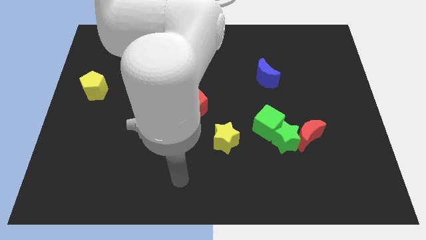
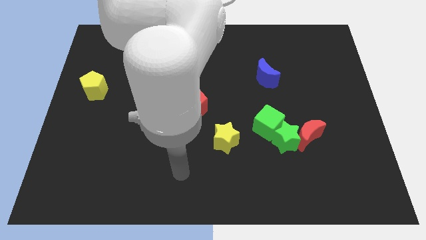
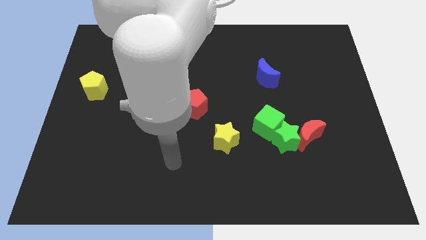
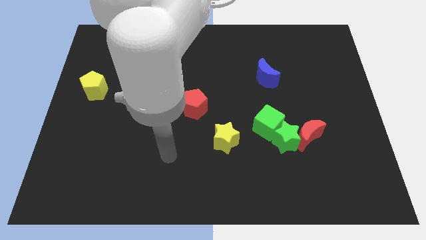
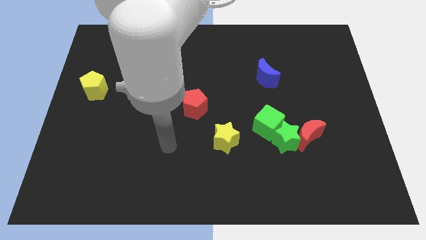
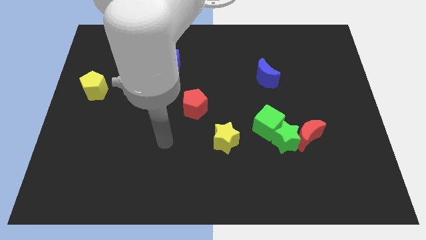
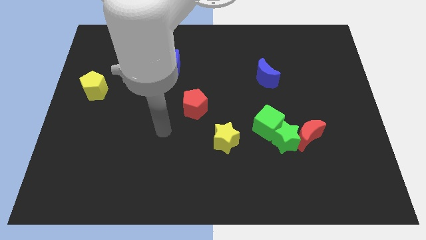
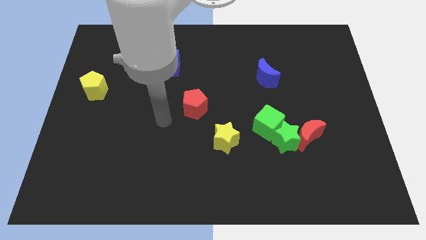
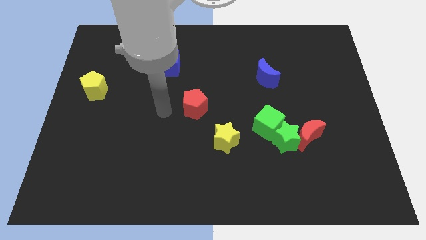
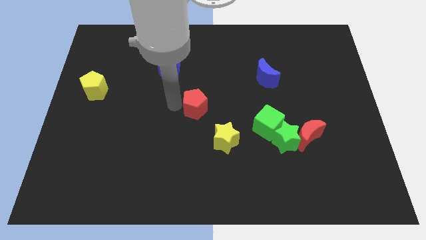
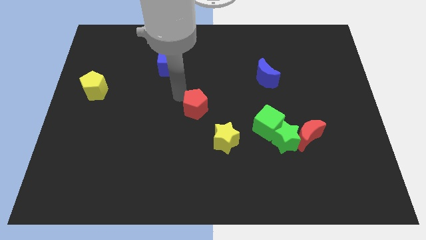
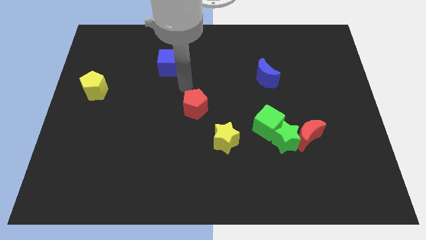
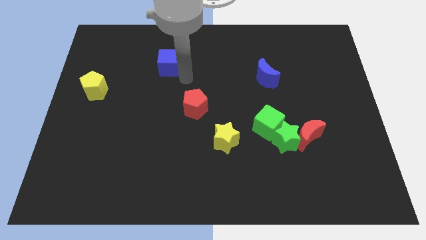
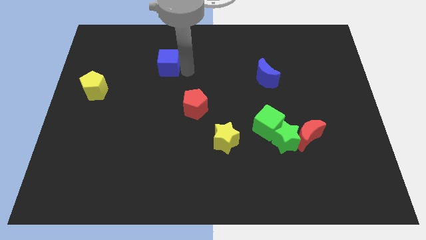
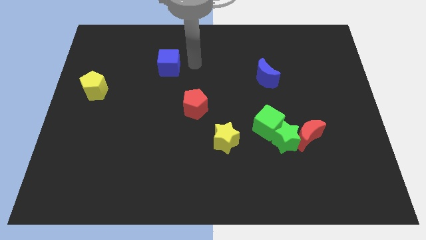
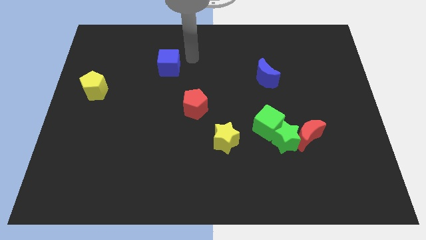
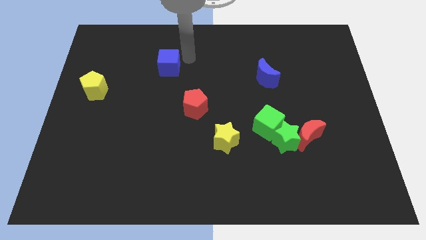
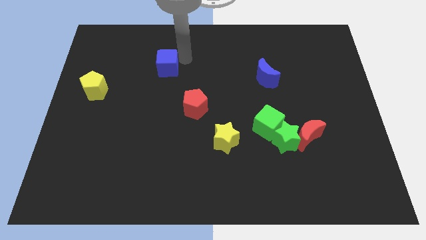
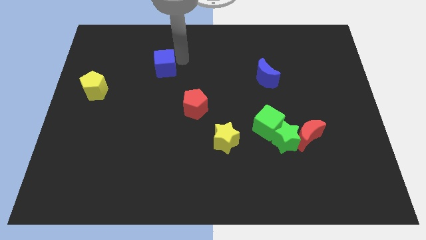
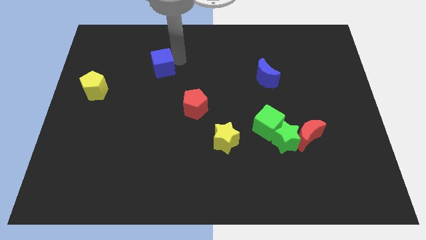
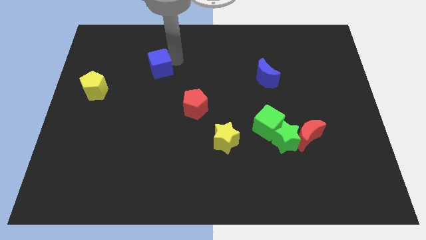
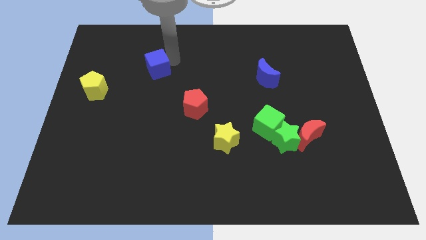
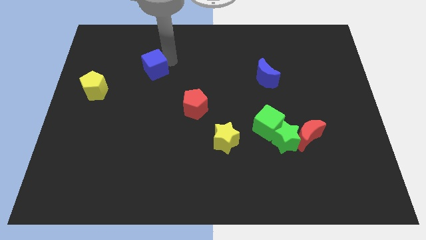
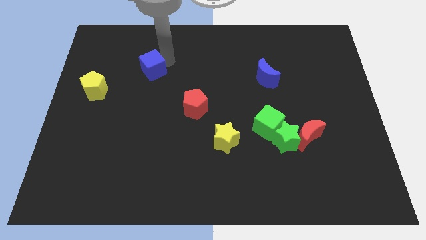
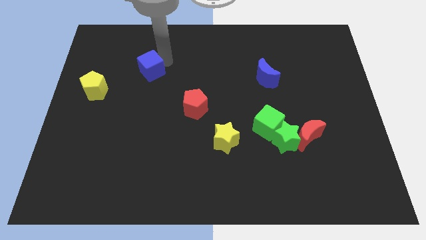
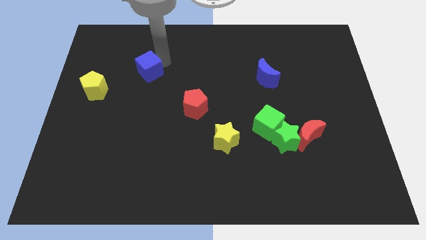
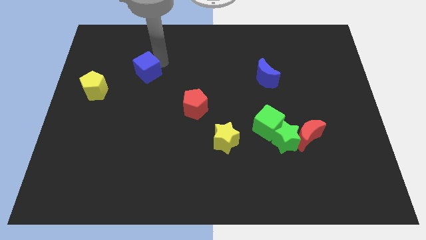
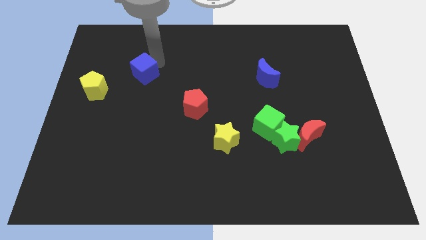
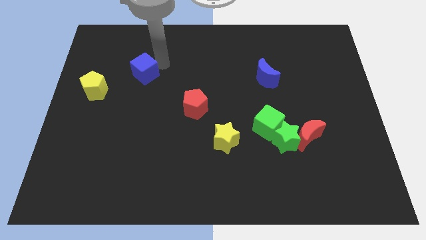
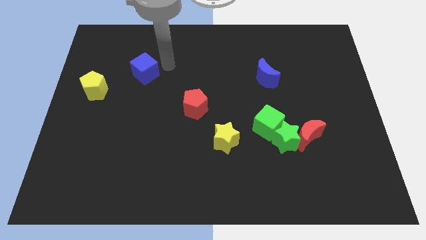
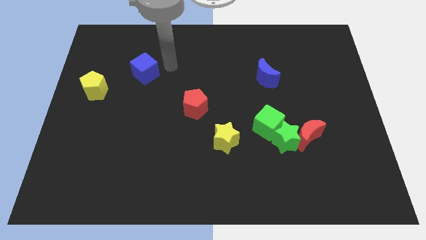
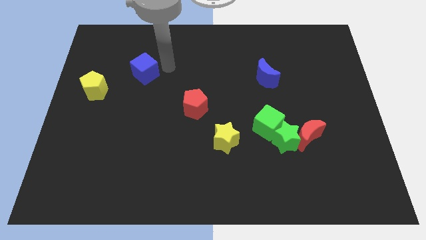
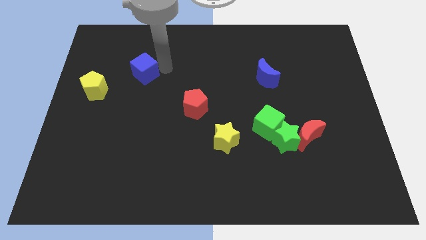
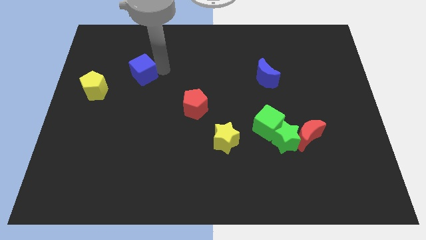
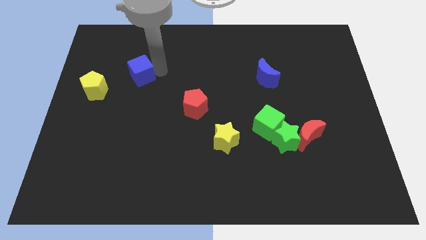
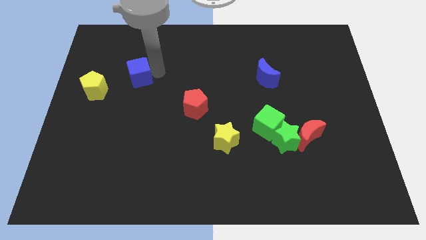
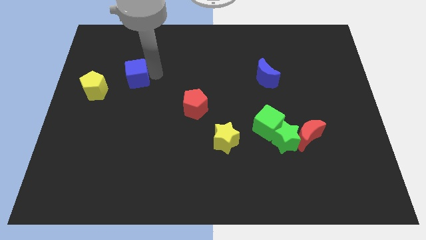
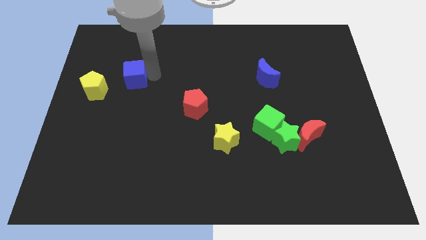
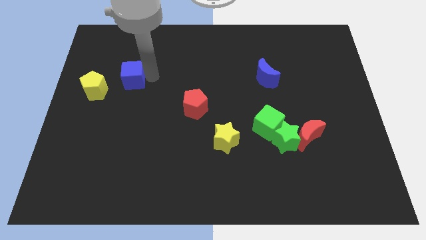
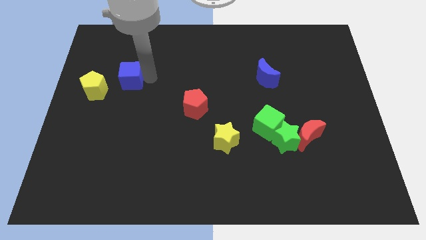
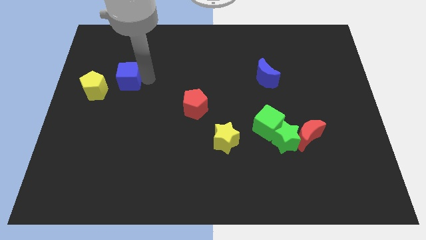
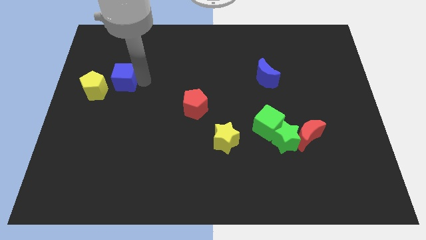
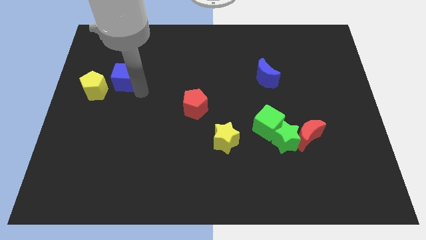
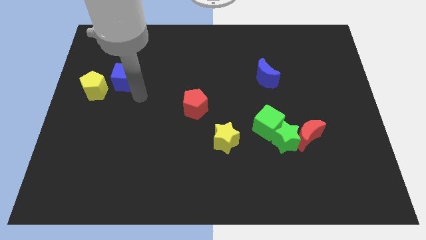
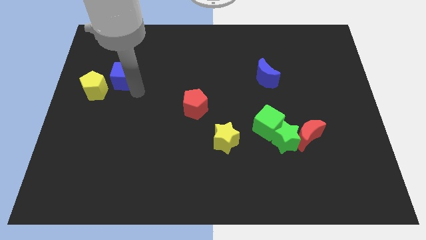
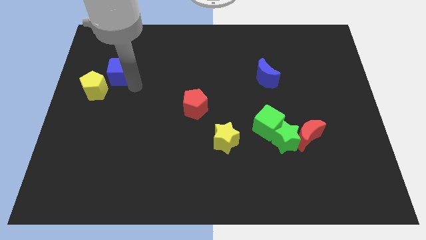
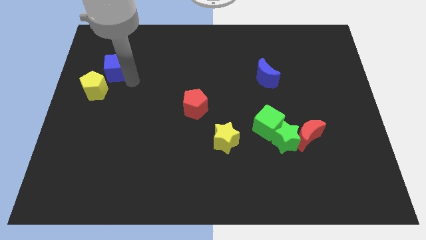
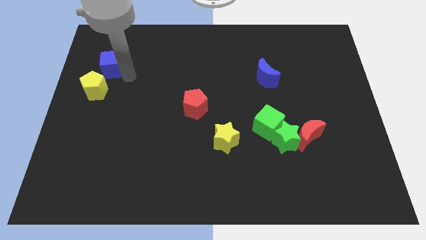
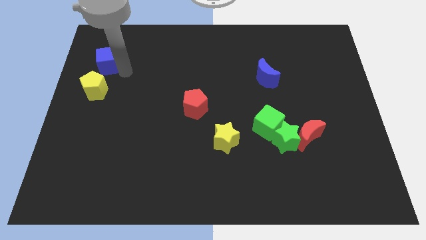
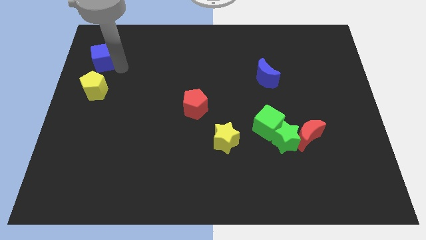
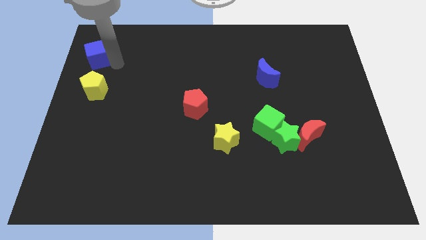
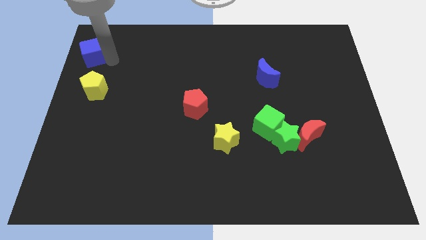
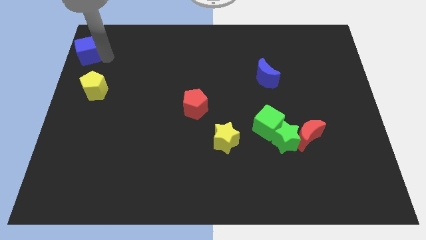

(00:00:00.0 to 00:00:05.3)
put the blue cube to the upper left corner

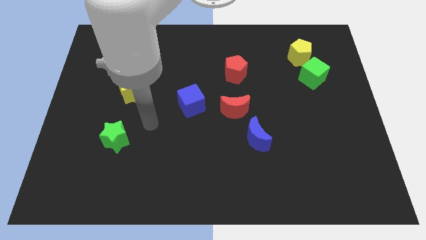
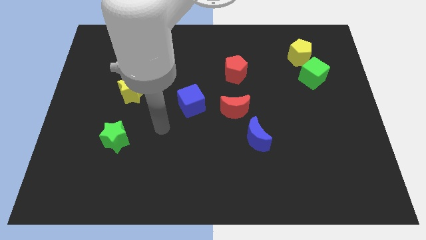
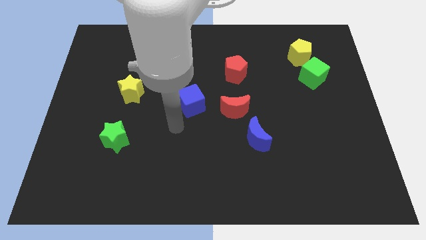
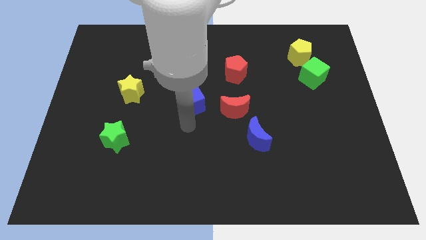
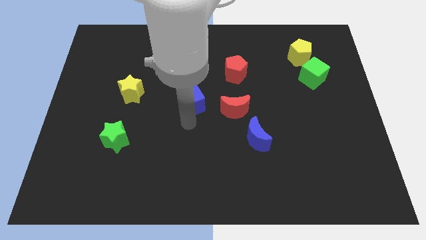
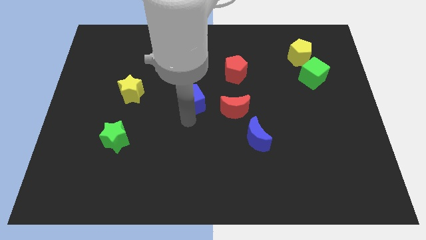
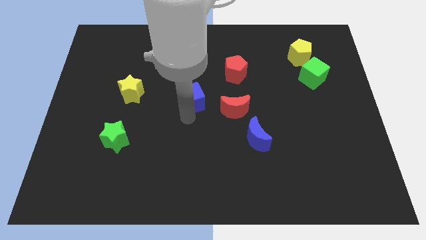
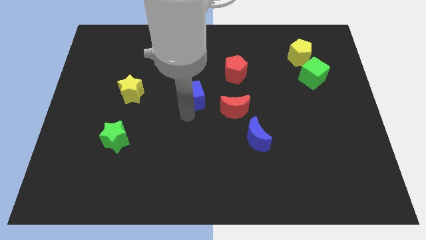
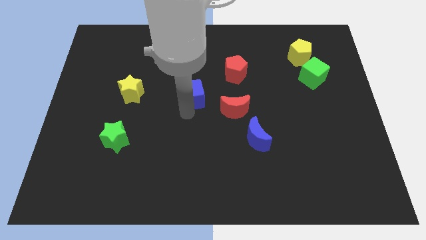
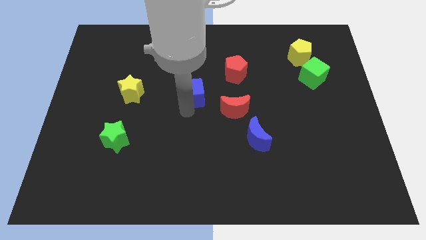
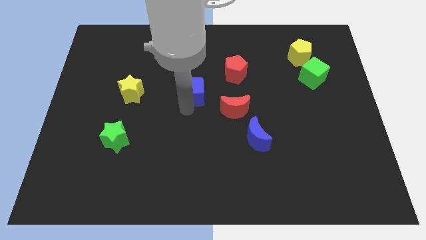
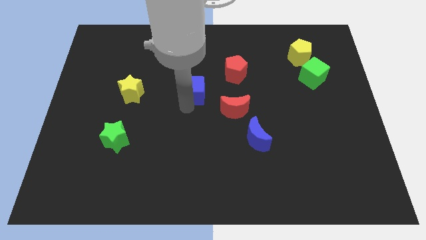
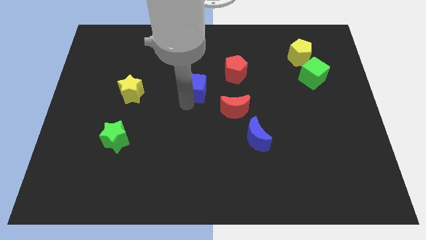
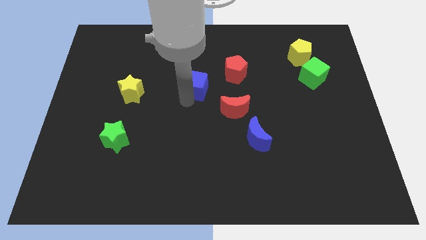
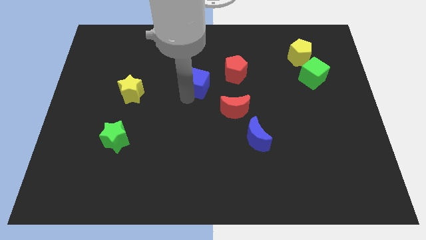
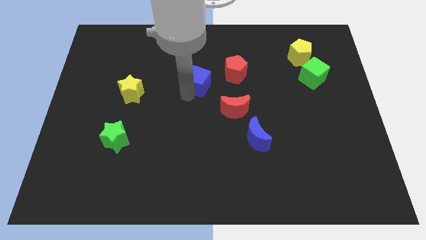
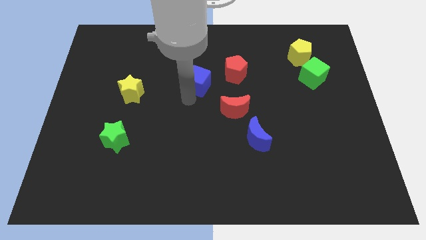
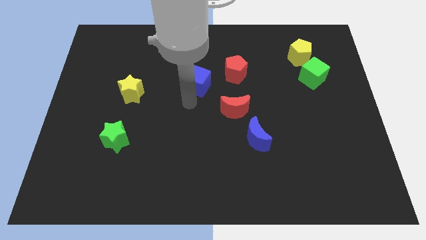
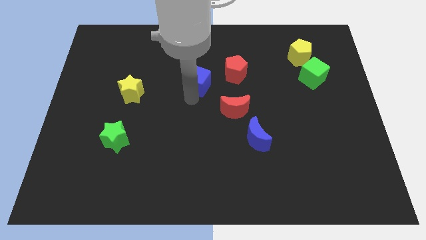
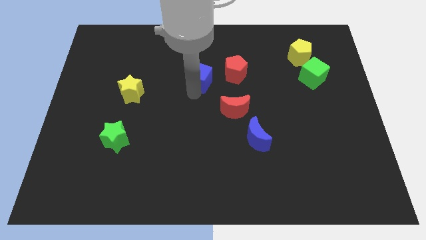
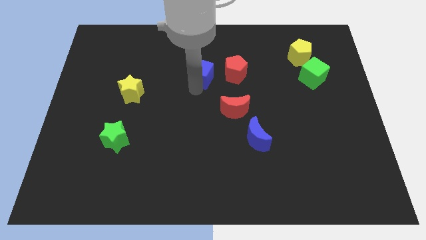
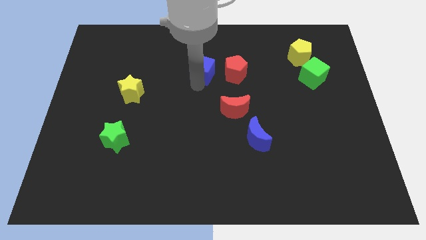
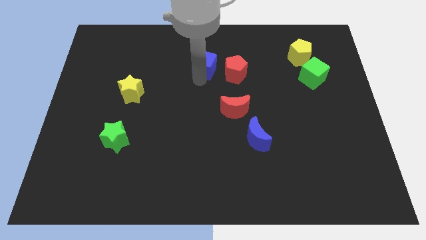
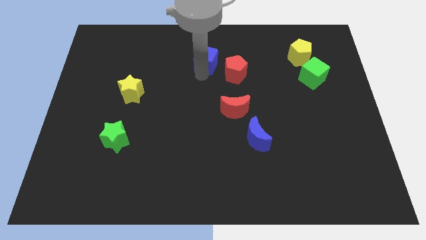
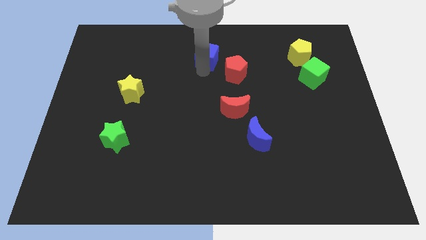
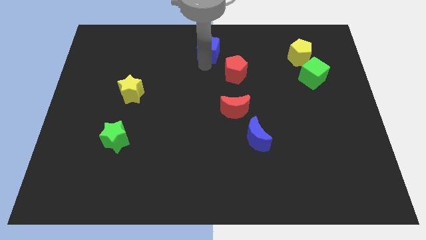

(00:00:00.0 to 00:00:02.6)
push the blue cube to the towards your base
